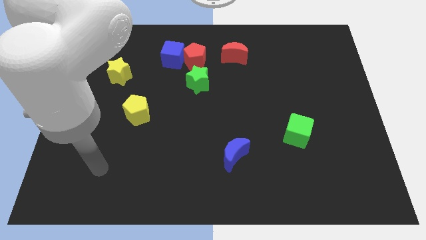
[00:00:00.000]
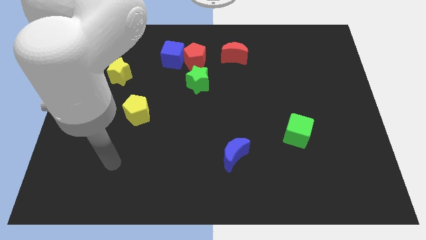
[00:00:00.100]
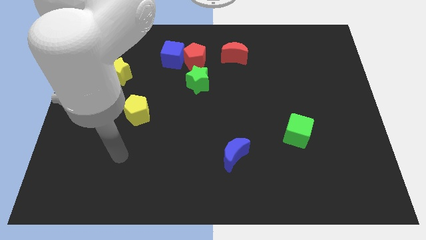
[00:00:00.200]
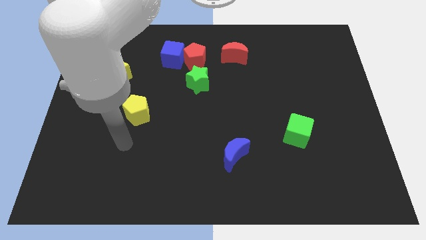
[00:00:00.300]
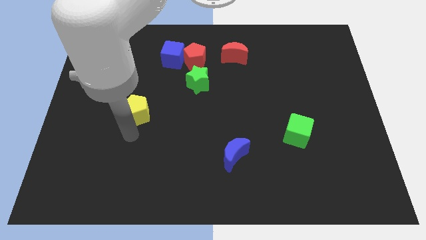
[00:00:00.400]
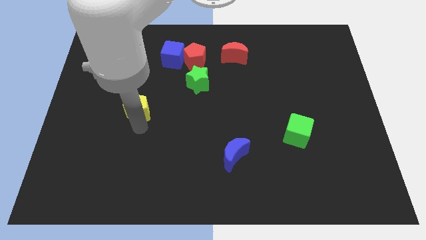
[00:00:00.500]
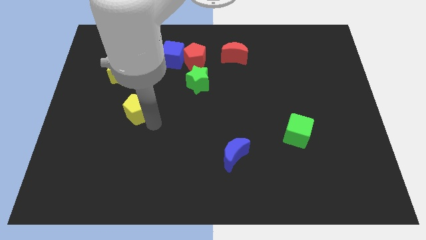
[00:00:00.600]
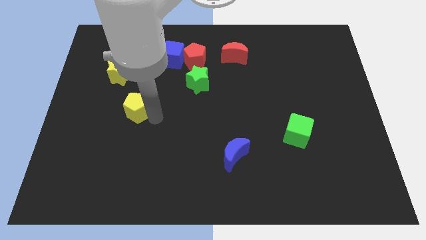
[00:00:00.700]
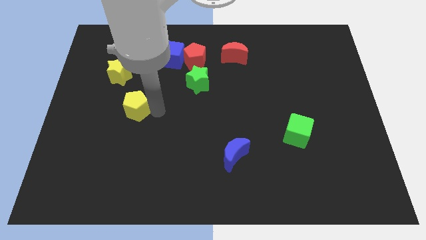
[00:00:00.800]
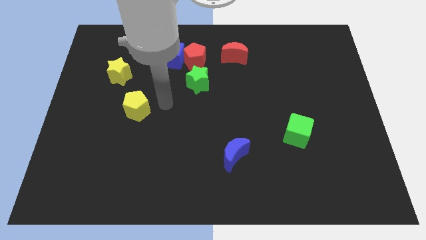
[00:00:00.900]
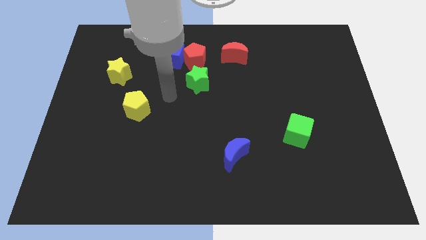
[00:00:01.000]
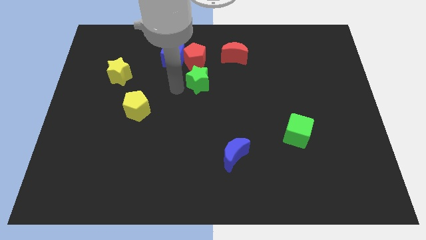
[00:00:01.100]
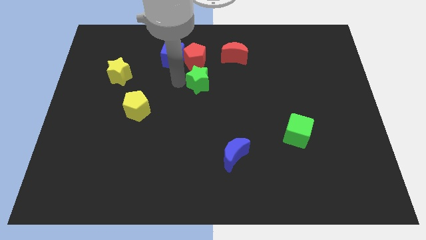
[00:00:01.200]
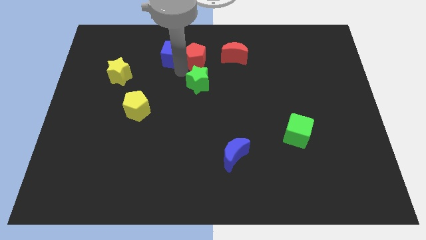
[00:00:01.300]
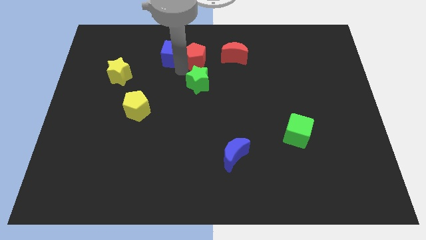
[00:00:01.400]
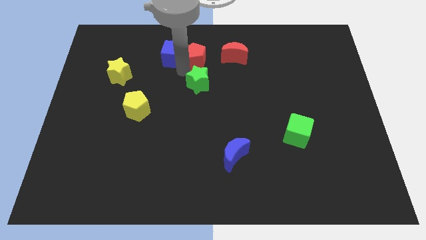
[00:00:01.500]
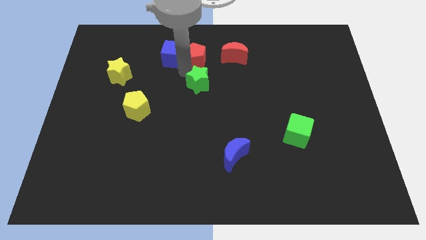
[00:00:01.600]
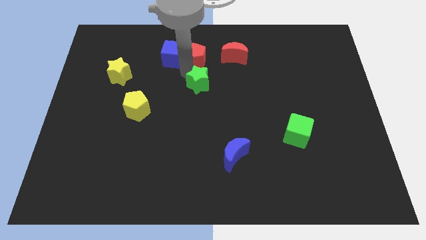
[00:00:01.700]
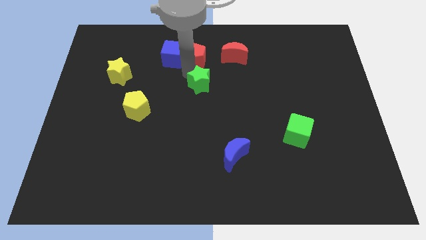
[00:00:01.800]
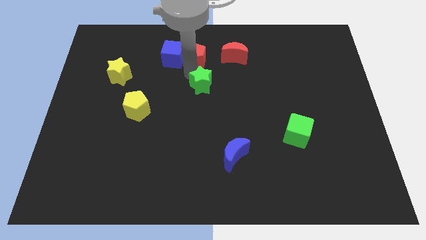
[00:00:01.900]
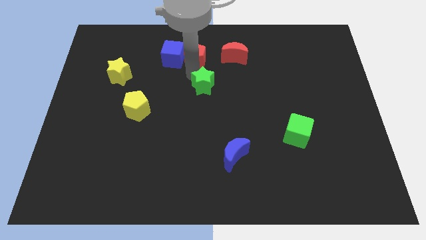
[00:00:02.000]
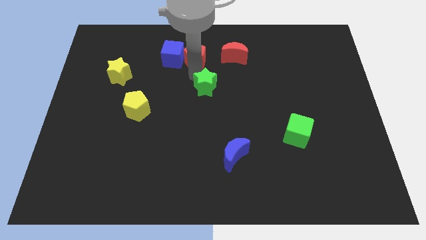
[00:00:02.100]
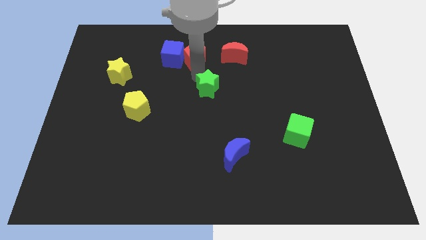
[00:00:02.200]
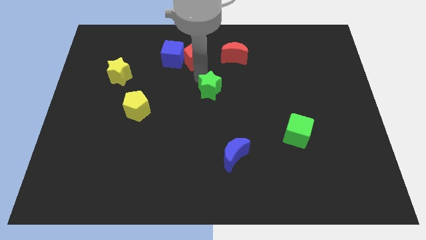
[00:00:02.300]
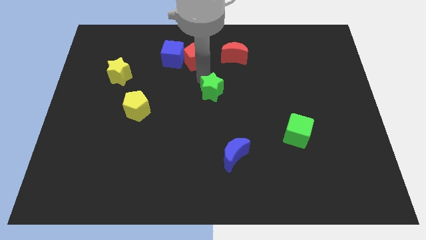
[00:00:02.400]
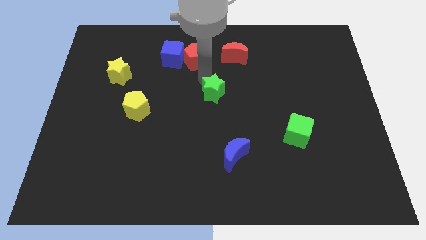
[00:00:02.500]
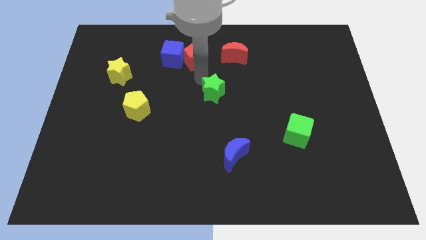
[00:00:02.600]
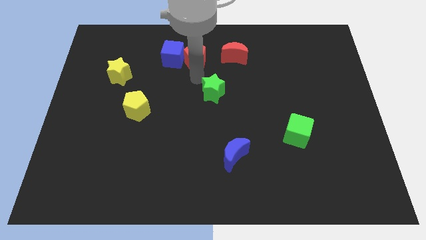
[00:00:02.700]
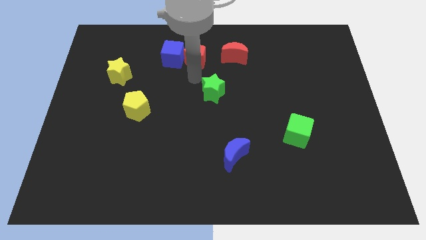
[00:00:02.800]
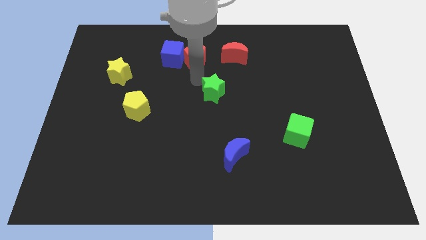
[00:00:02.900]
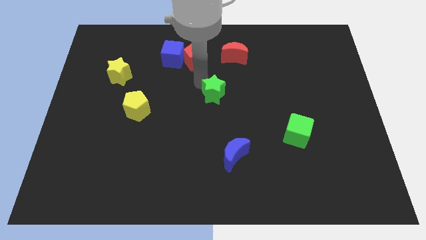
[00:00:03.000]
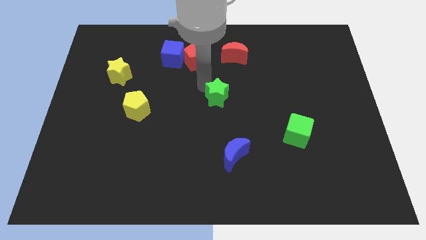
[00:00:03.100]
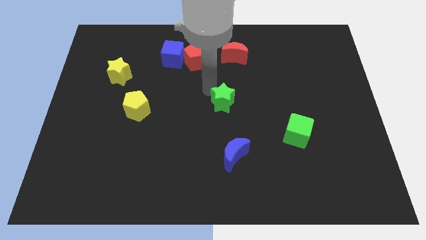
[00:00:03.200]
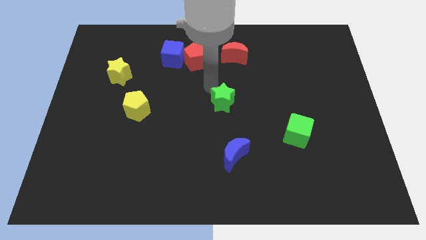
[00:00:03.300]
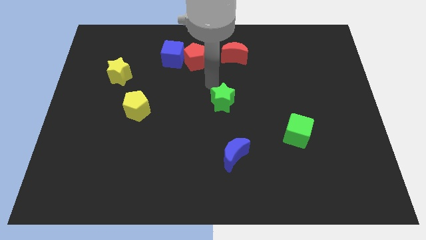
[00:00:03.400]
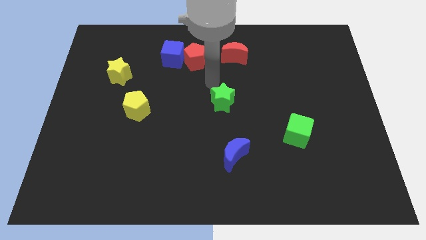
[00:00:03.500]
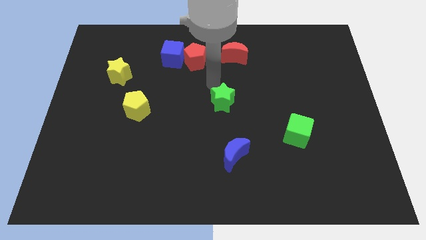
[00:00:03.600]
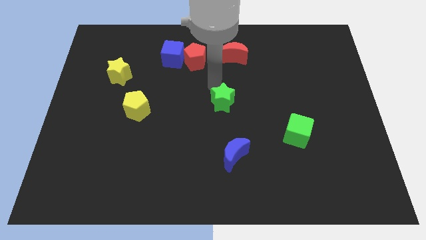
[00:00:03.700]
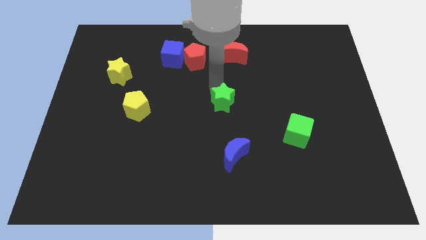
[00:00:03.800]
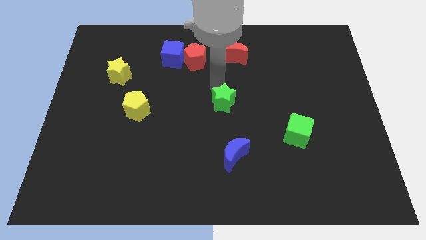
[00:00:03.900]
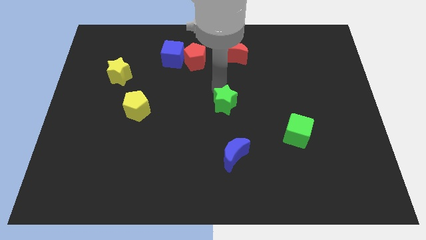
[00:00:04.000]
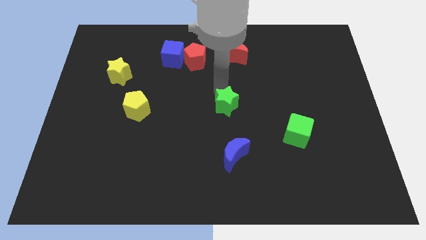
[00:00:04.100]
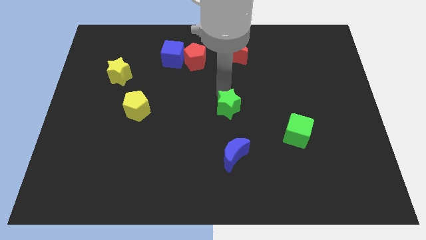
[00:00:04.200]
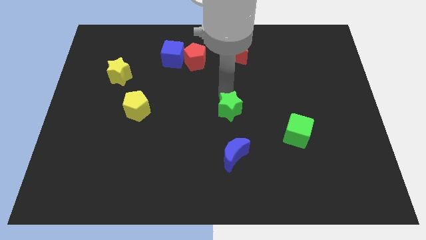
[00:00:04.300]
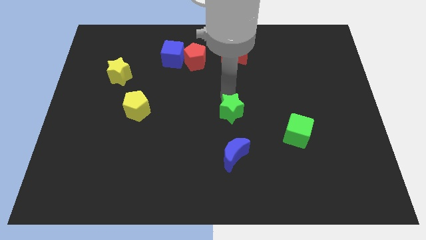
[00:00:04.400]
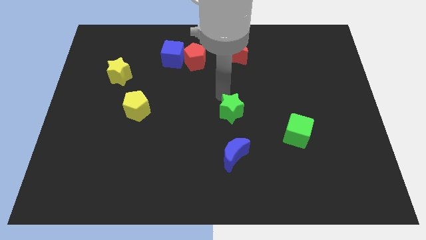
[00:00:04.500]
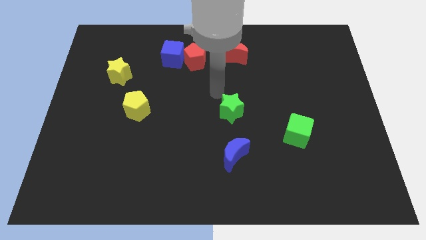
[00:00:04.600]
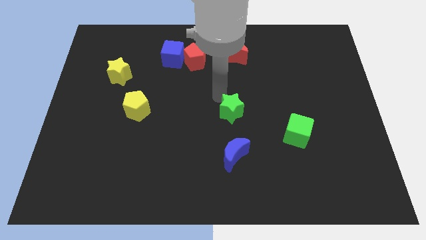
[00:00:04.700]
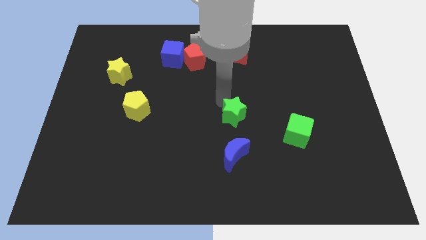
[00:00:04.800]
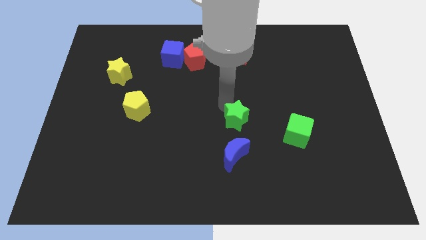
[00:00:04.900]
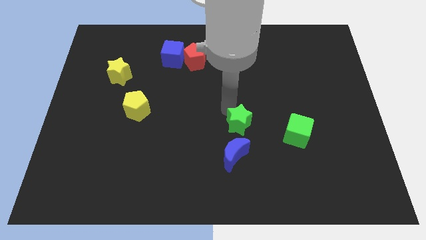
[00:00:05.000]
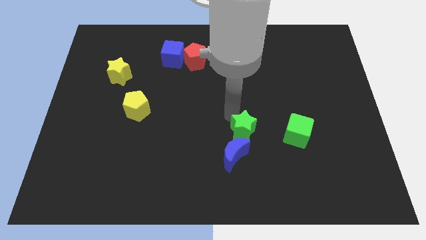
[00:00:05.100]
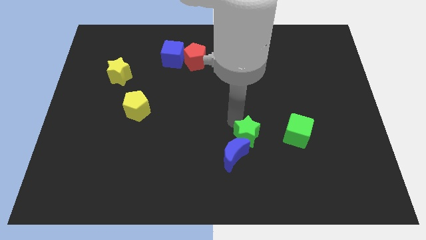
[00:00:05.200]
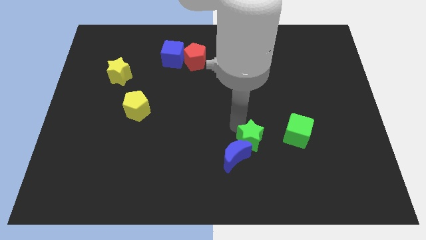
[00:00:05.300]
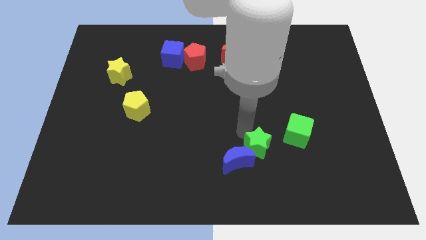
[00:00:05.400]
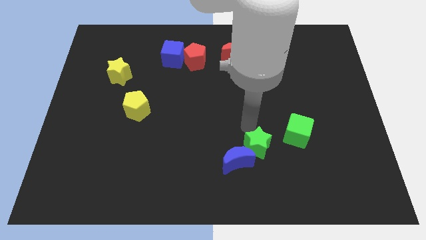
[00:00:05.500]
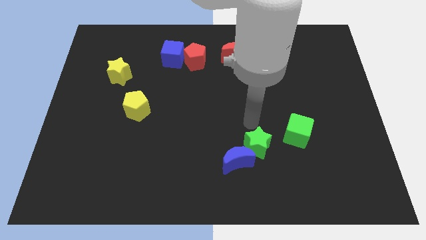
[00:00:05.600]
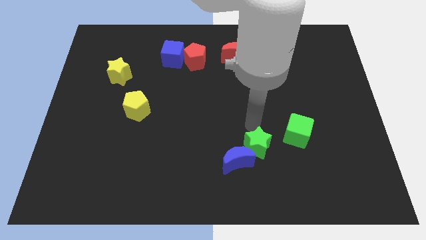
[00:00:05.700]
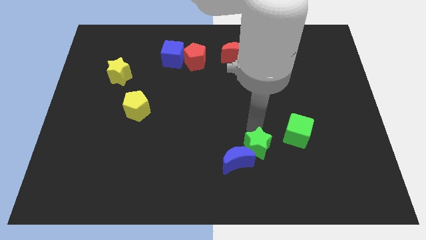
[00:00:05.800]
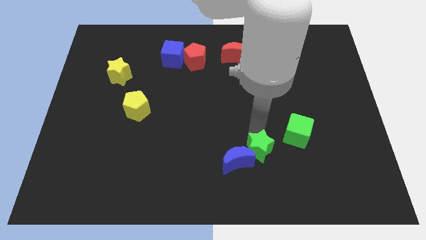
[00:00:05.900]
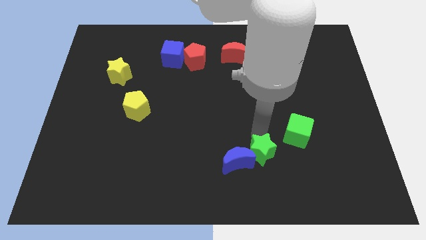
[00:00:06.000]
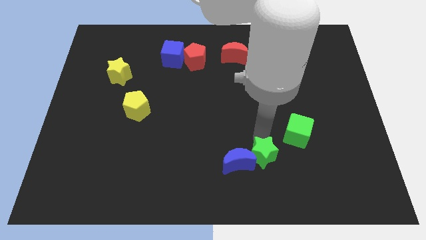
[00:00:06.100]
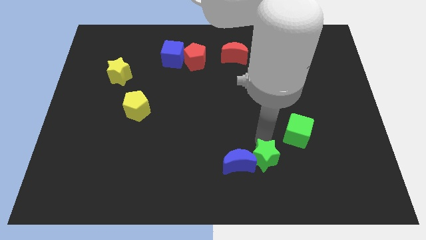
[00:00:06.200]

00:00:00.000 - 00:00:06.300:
put the green star diagonally down and to the right of the blue moon
